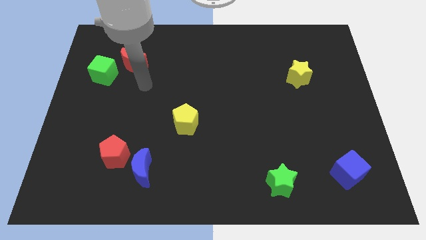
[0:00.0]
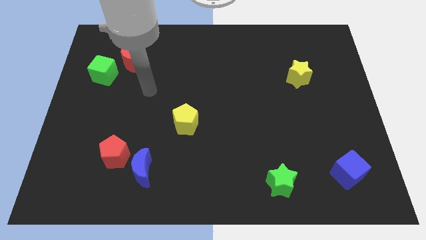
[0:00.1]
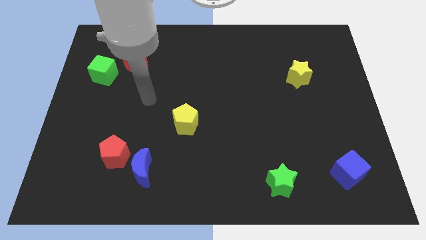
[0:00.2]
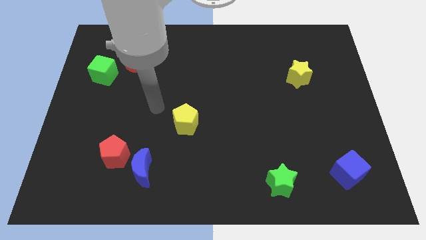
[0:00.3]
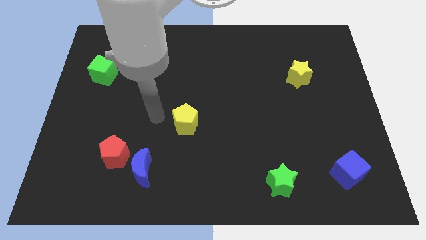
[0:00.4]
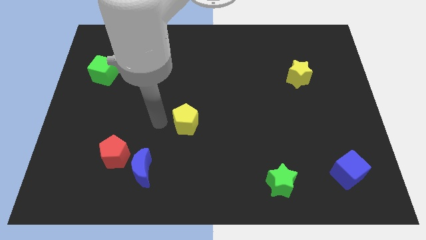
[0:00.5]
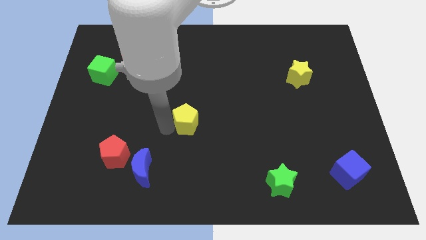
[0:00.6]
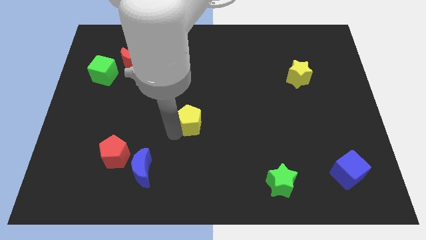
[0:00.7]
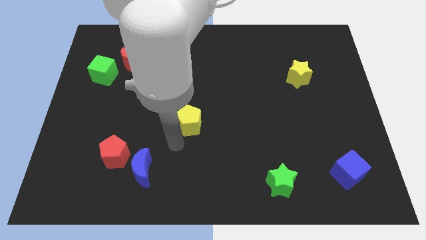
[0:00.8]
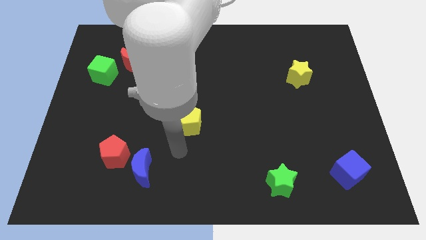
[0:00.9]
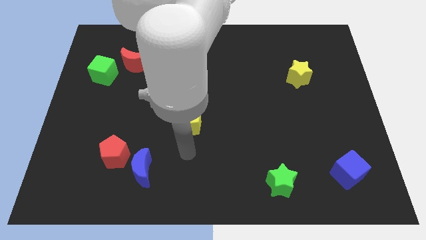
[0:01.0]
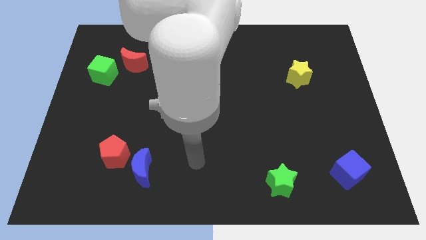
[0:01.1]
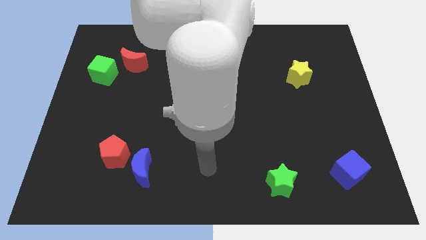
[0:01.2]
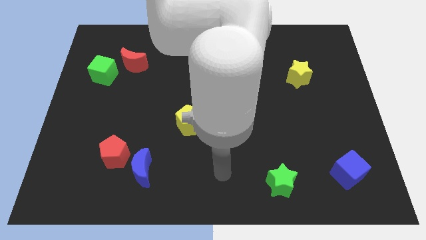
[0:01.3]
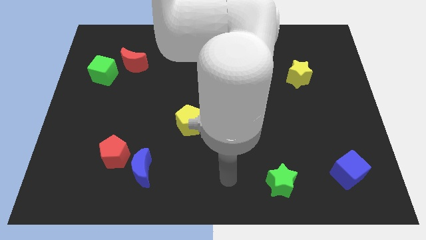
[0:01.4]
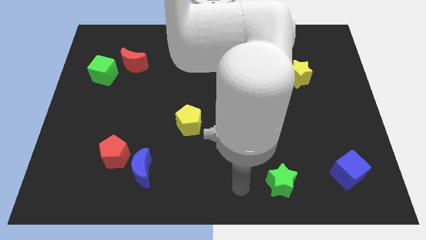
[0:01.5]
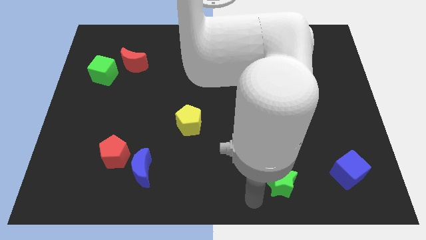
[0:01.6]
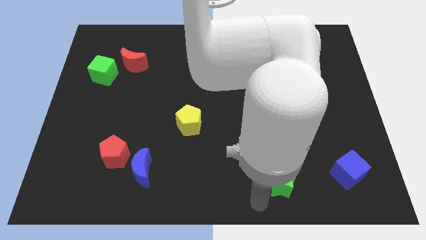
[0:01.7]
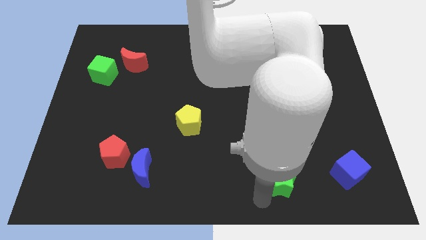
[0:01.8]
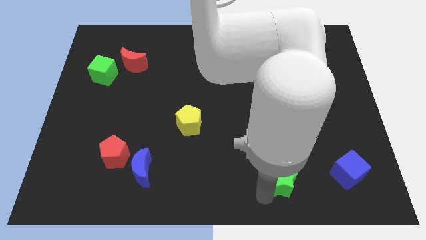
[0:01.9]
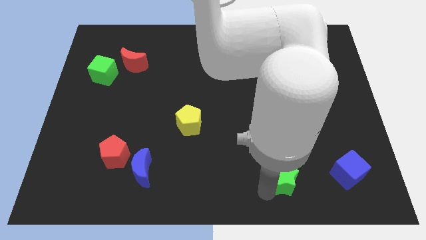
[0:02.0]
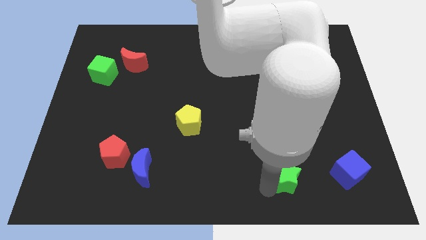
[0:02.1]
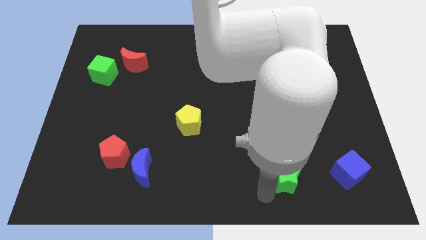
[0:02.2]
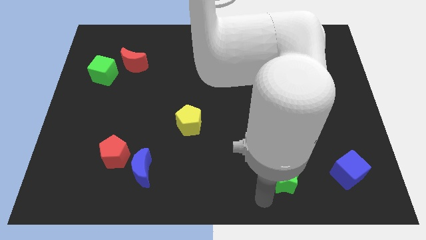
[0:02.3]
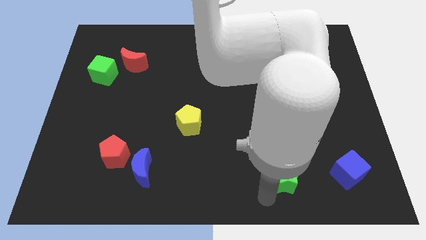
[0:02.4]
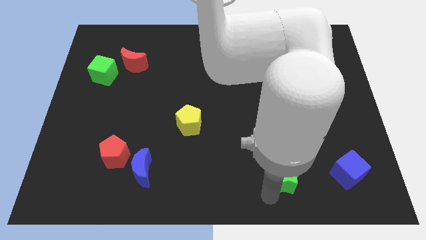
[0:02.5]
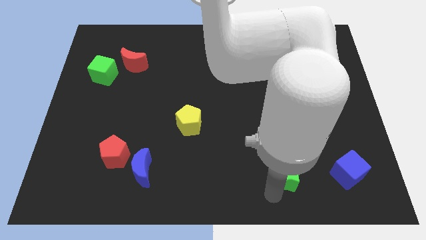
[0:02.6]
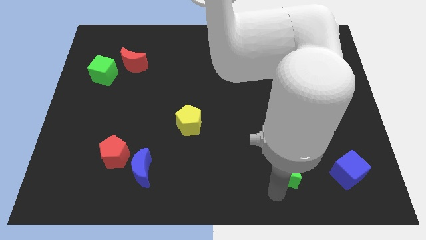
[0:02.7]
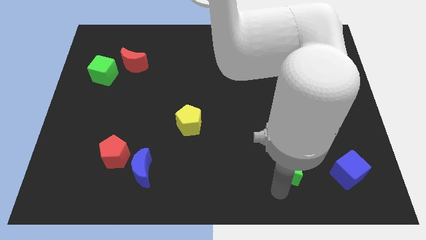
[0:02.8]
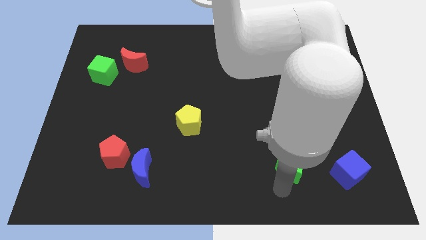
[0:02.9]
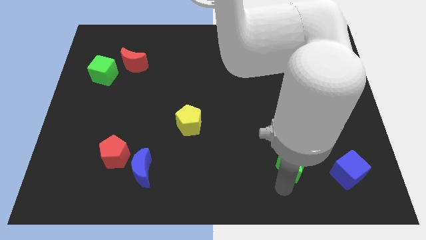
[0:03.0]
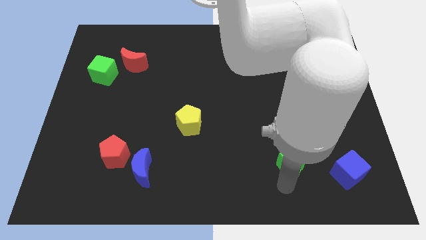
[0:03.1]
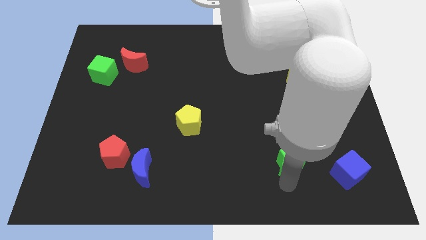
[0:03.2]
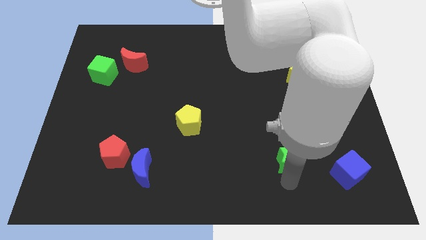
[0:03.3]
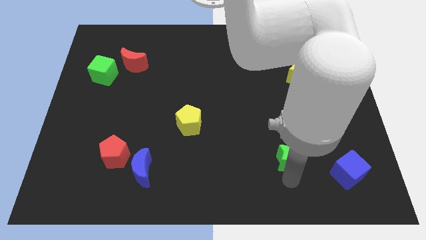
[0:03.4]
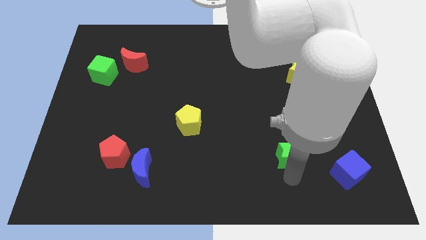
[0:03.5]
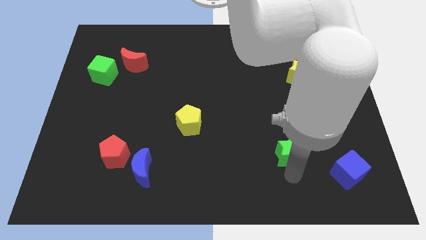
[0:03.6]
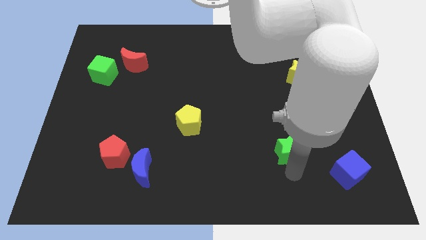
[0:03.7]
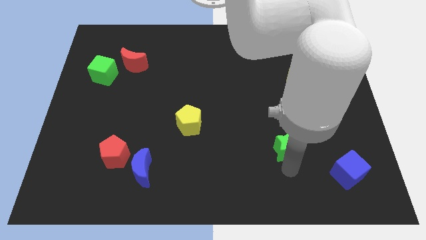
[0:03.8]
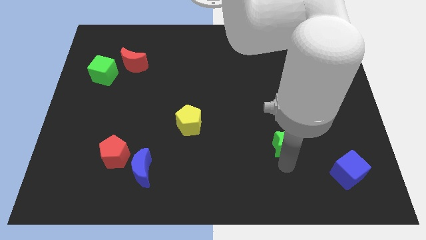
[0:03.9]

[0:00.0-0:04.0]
push the green star slightly diagonally upwards and right

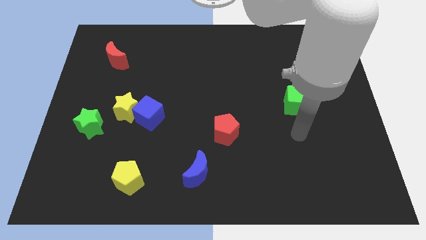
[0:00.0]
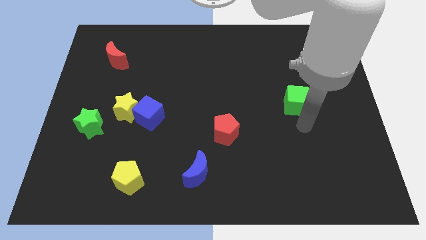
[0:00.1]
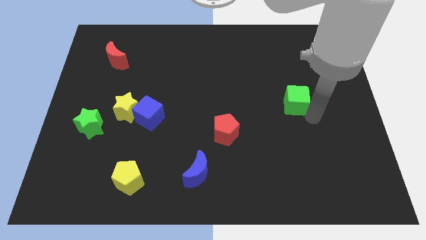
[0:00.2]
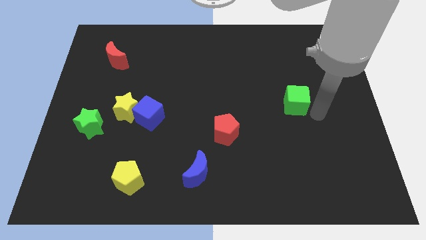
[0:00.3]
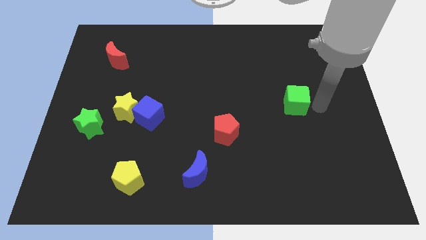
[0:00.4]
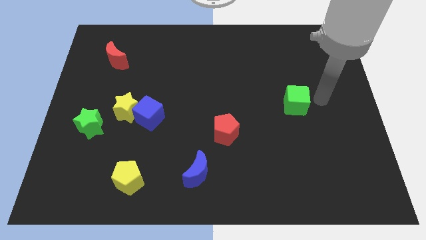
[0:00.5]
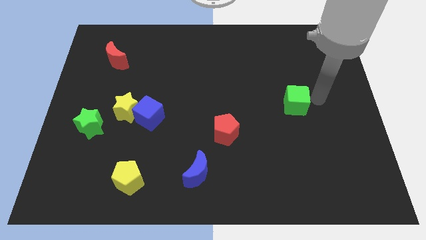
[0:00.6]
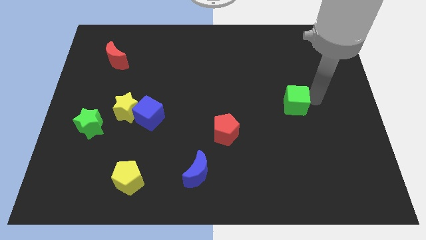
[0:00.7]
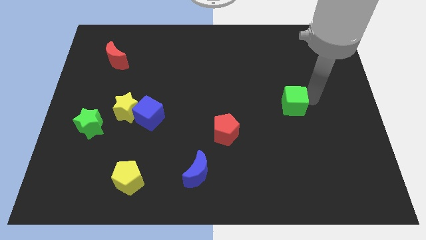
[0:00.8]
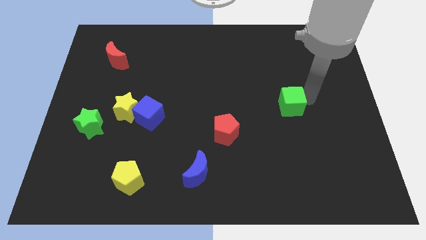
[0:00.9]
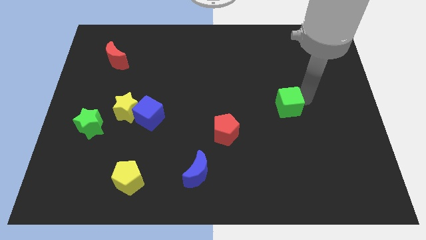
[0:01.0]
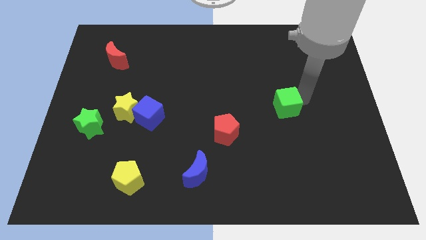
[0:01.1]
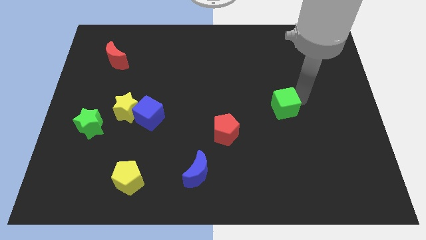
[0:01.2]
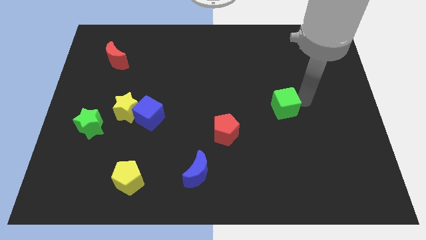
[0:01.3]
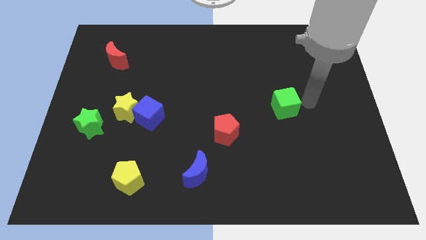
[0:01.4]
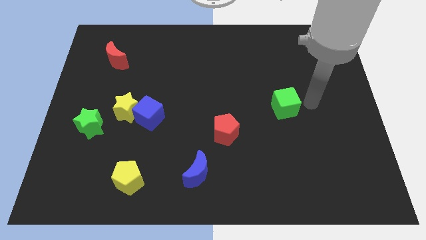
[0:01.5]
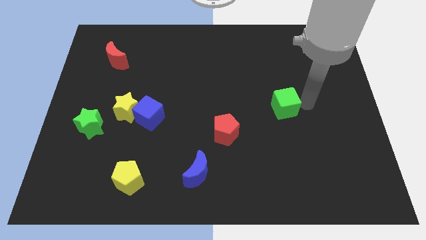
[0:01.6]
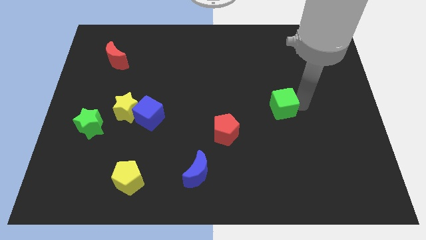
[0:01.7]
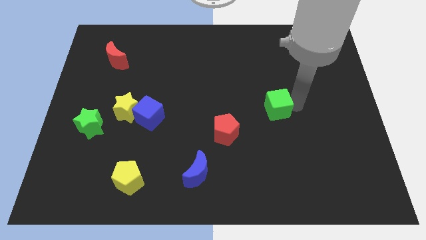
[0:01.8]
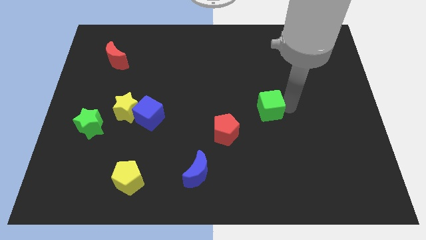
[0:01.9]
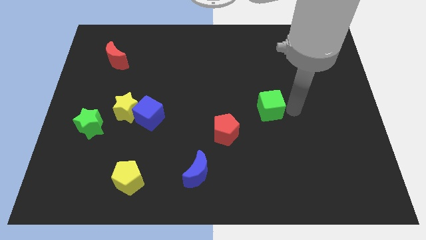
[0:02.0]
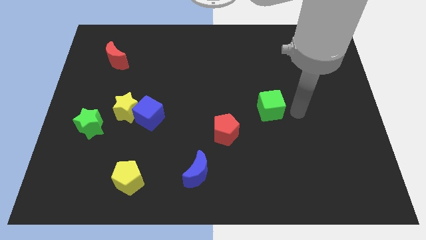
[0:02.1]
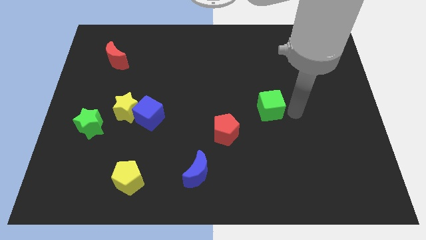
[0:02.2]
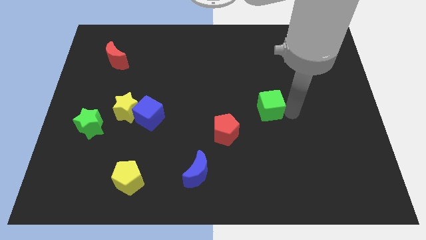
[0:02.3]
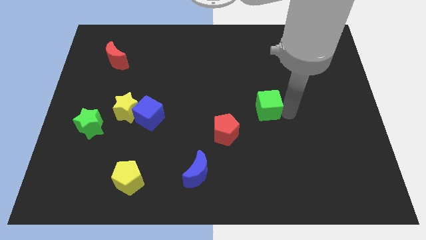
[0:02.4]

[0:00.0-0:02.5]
slightly slide the green cube to the left

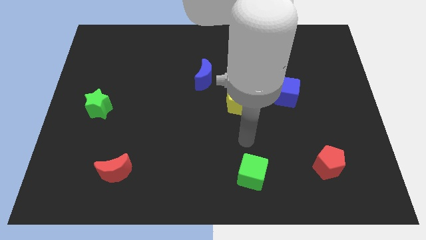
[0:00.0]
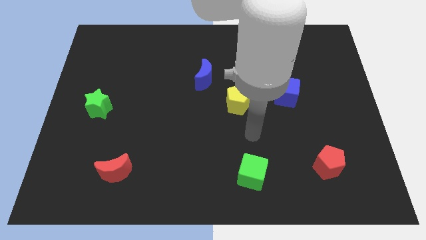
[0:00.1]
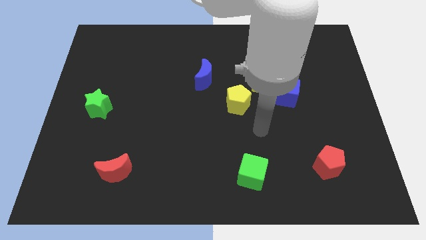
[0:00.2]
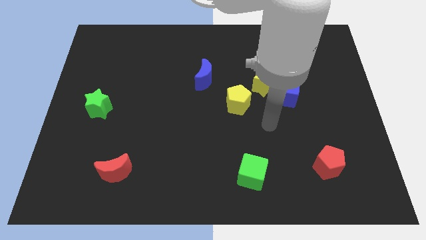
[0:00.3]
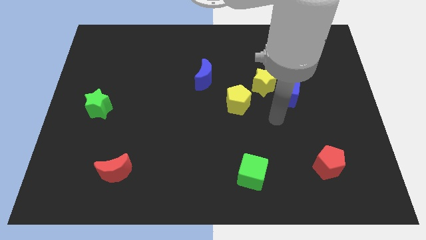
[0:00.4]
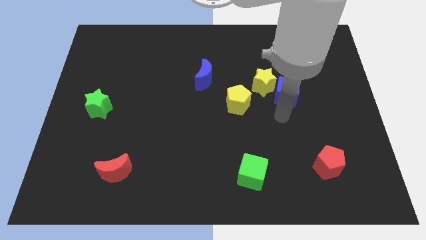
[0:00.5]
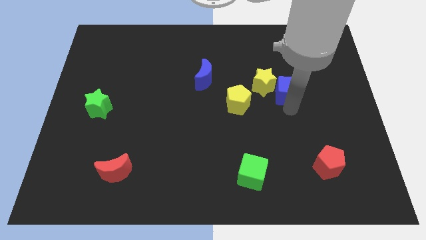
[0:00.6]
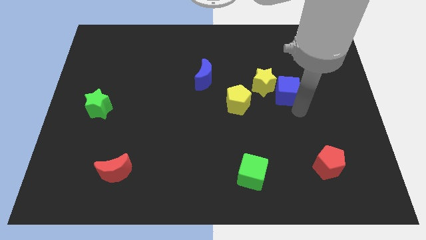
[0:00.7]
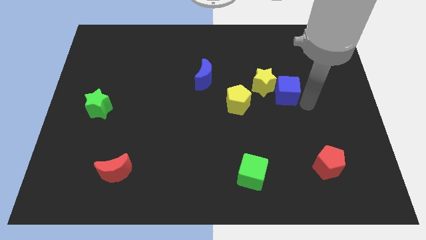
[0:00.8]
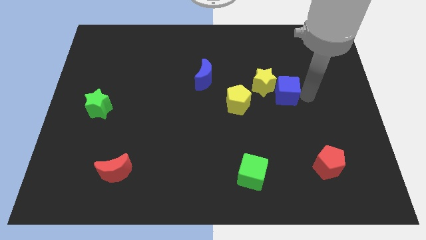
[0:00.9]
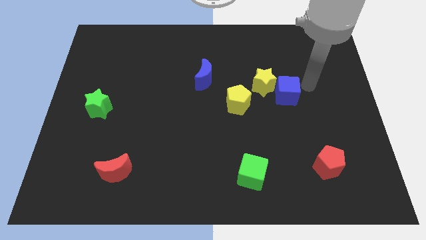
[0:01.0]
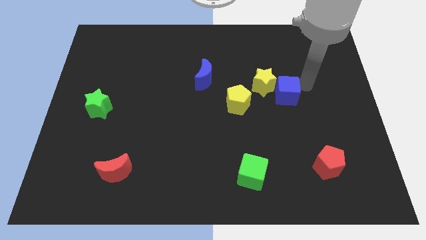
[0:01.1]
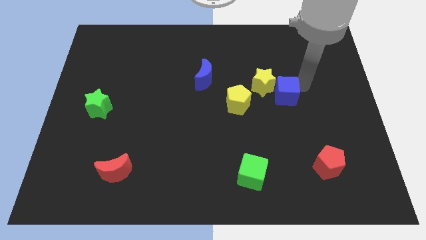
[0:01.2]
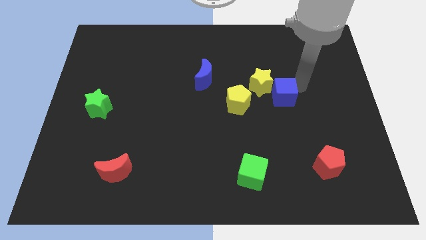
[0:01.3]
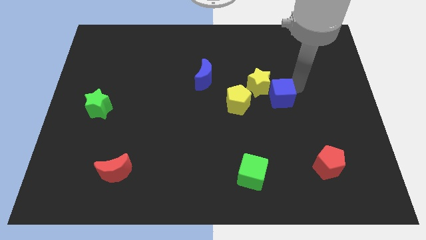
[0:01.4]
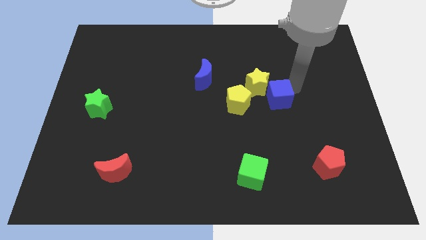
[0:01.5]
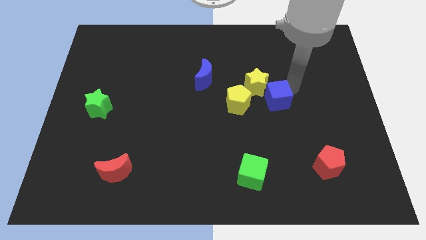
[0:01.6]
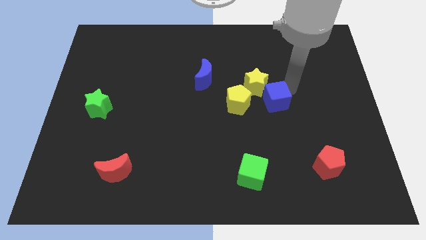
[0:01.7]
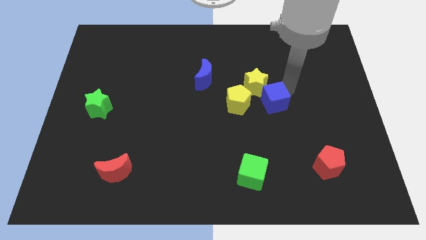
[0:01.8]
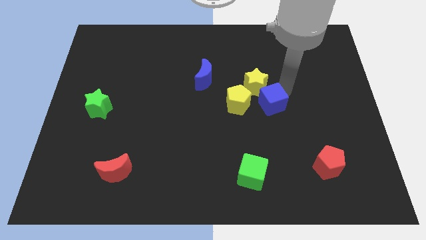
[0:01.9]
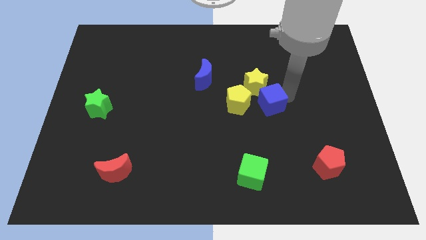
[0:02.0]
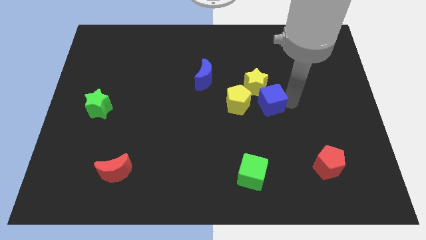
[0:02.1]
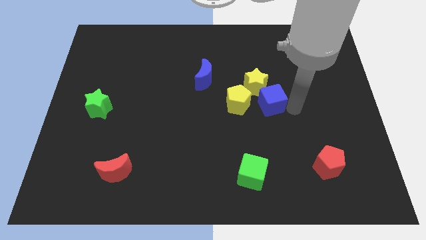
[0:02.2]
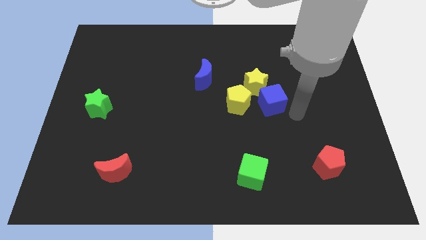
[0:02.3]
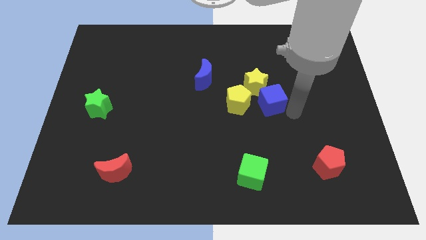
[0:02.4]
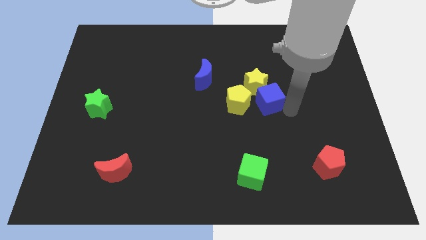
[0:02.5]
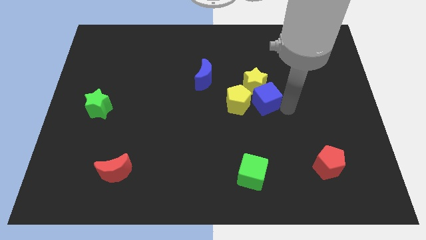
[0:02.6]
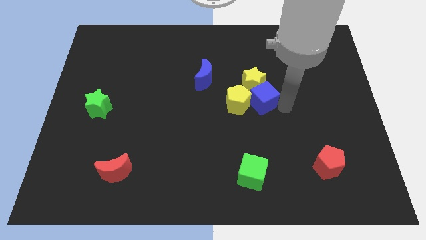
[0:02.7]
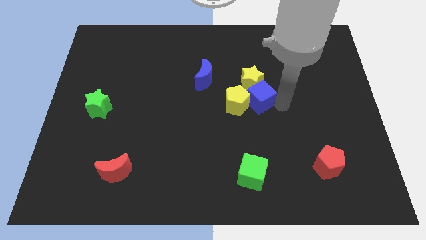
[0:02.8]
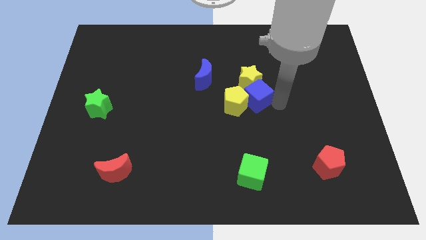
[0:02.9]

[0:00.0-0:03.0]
push the blue cube to the left somewhat
